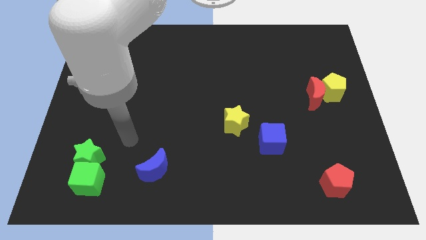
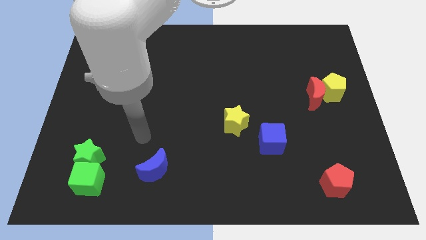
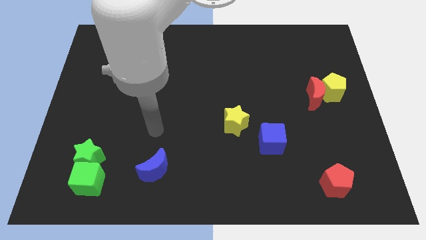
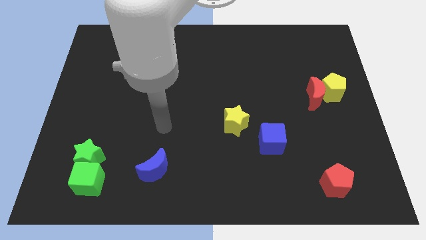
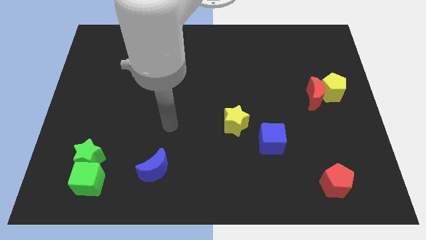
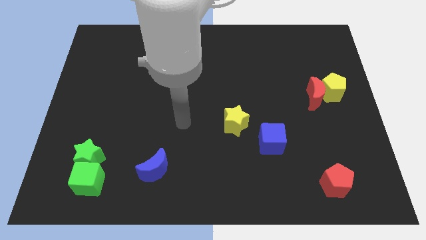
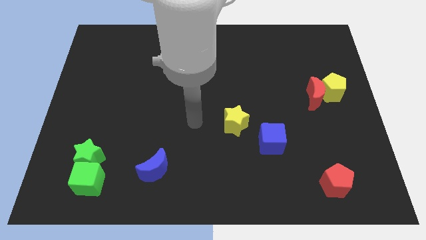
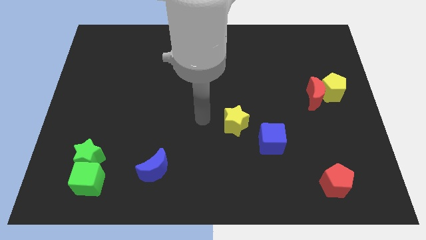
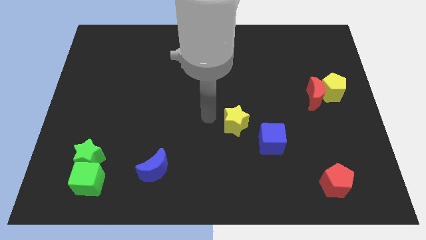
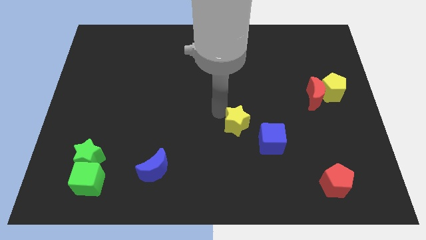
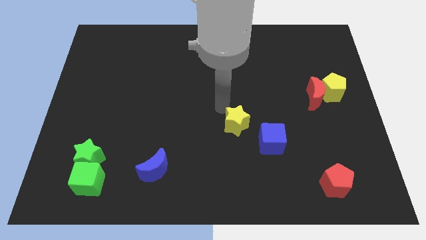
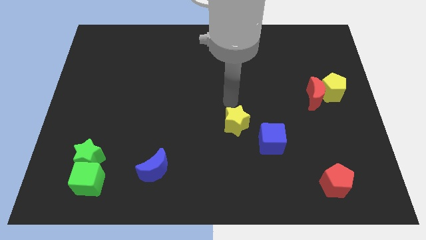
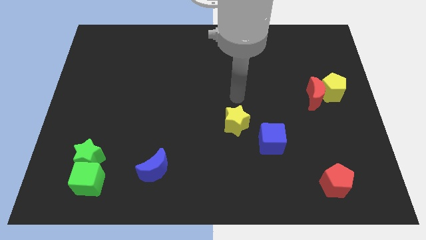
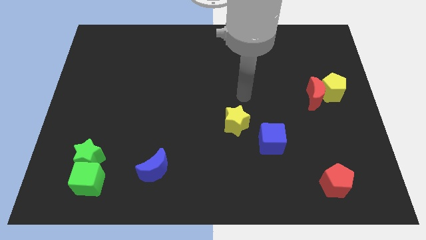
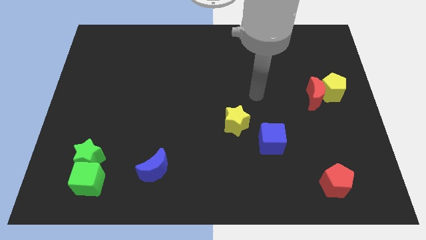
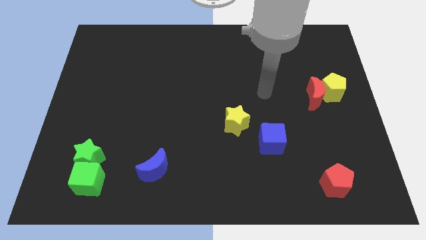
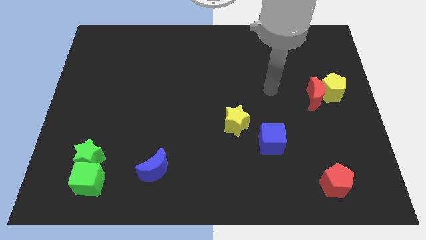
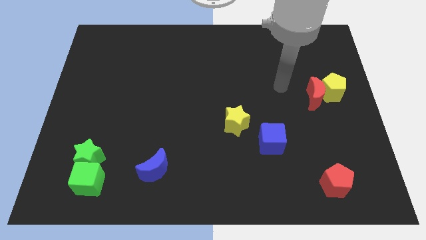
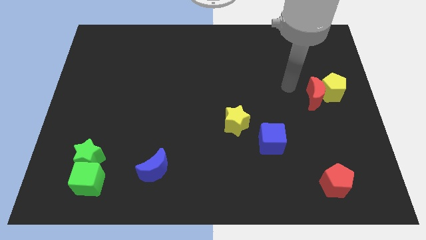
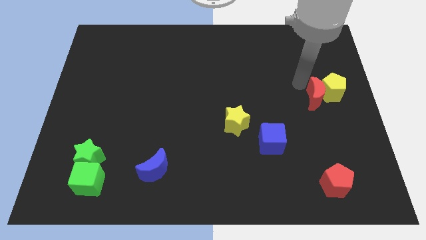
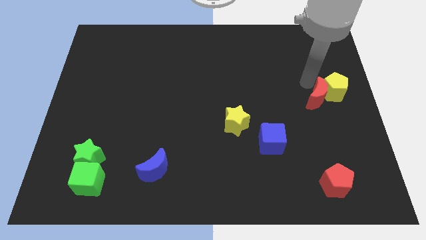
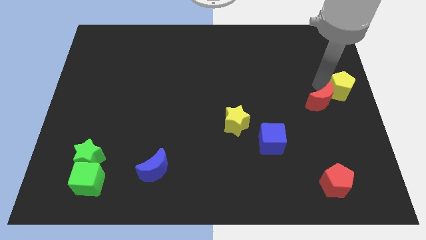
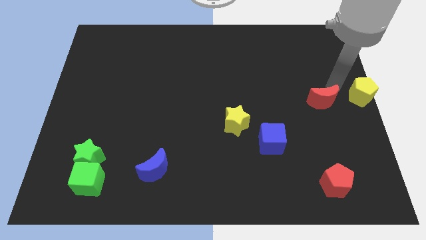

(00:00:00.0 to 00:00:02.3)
separate the red moon from the yellow pentagon

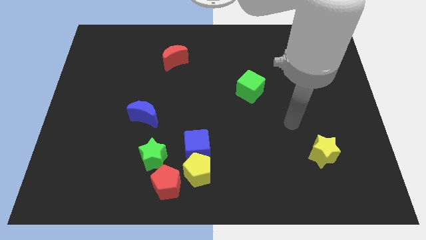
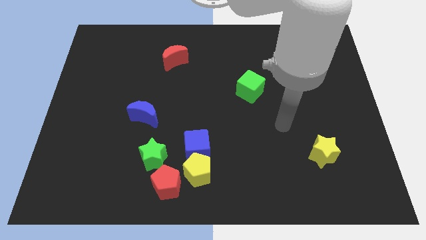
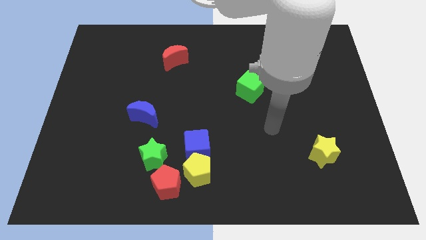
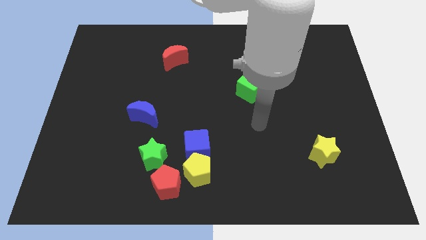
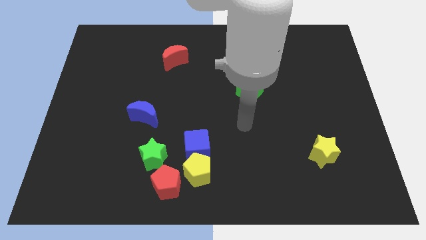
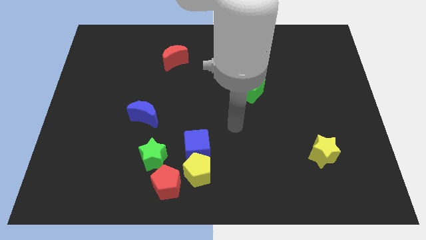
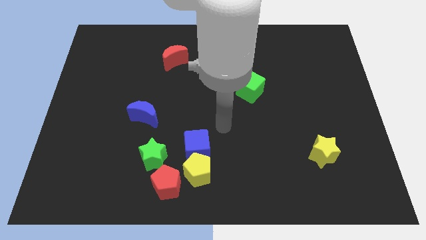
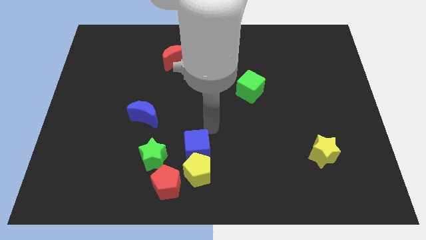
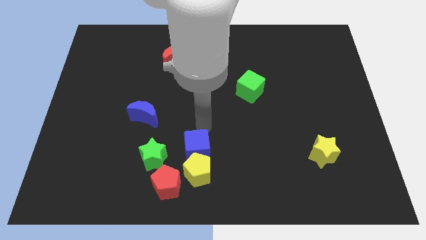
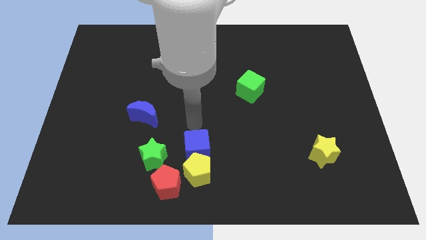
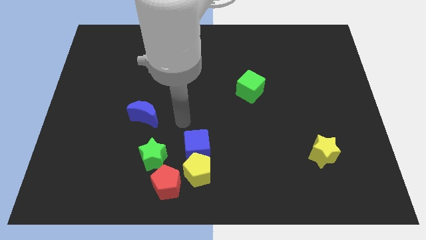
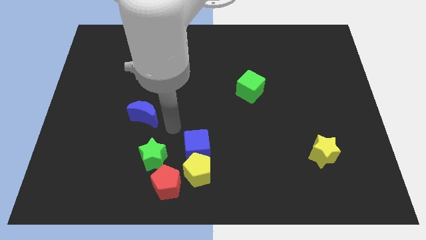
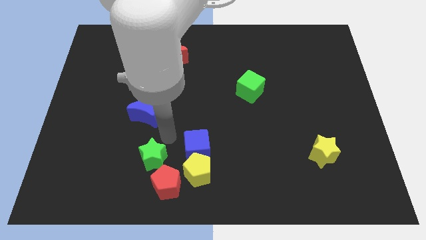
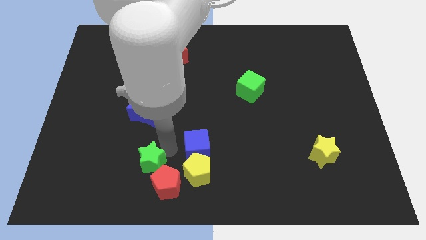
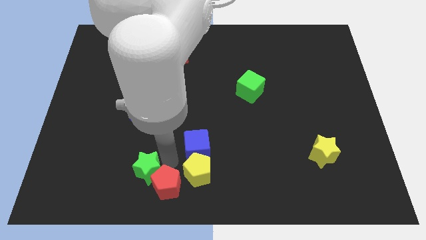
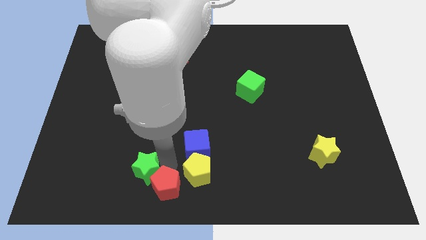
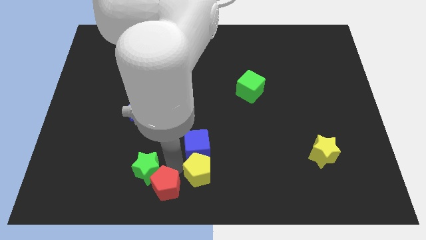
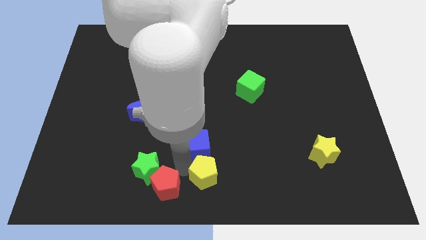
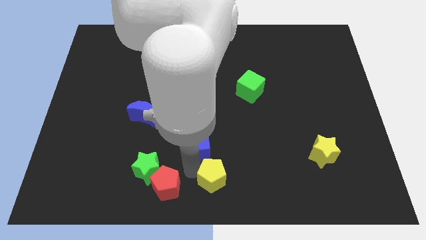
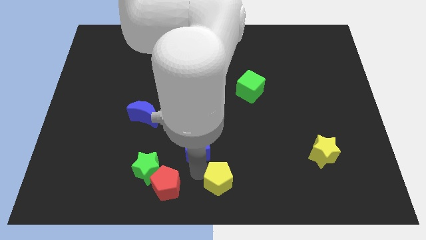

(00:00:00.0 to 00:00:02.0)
pull the yellow pentagon apart from the group of blocks

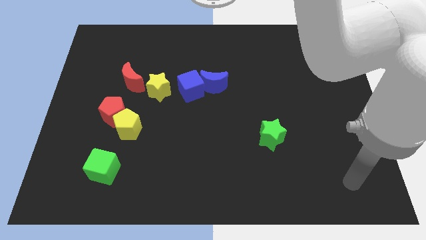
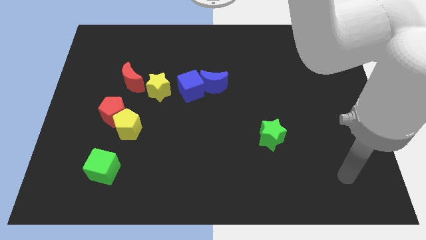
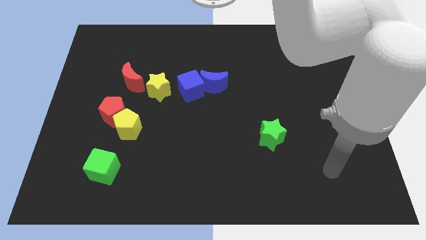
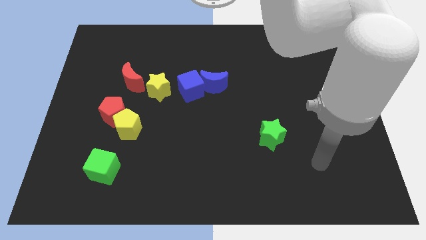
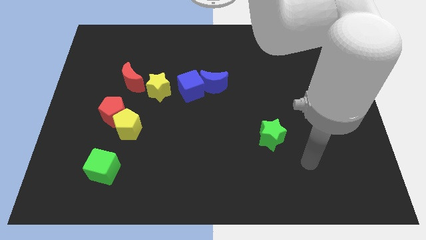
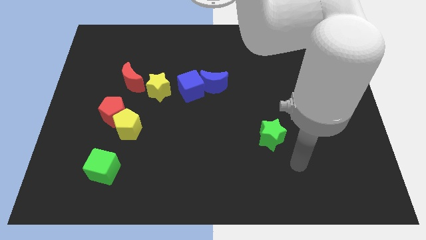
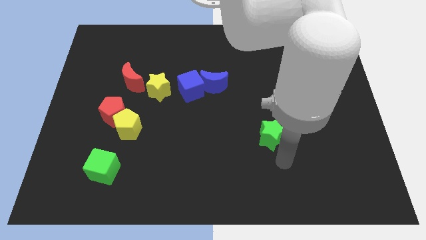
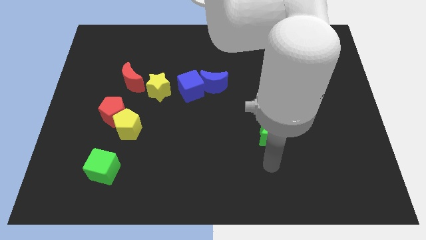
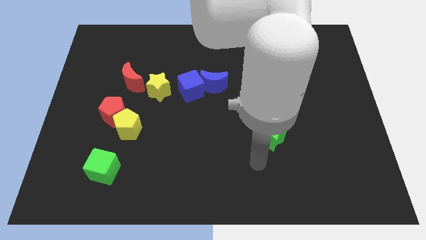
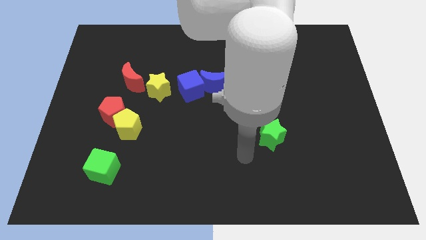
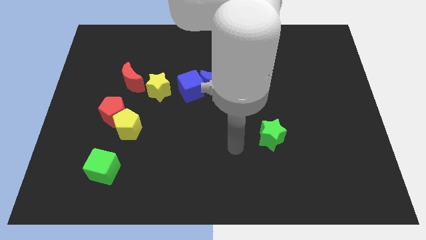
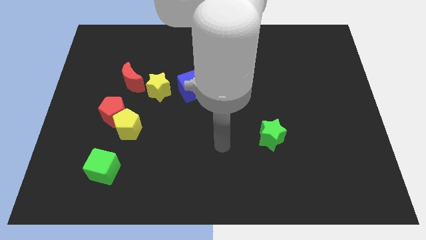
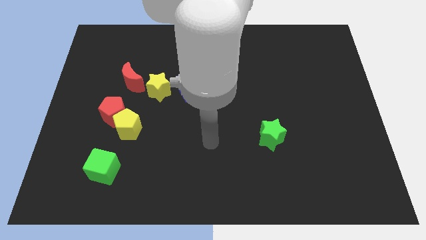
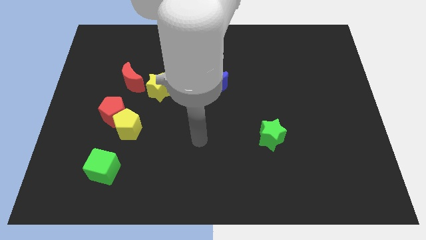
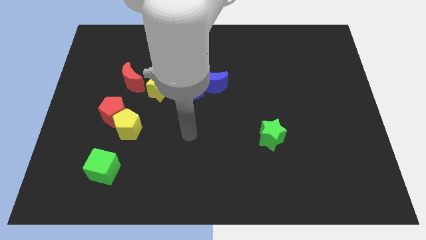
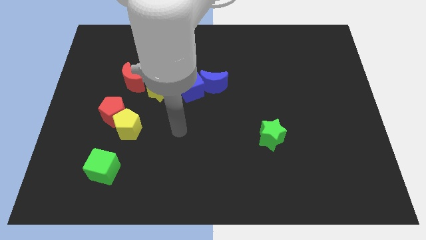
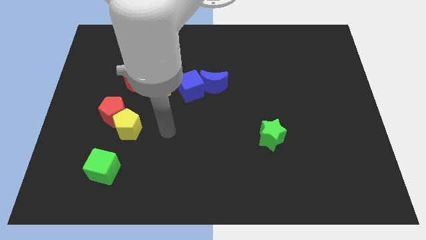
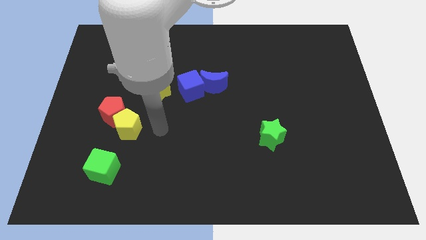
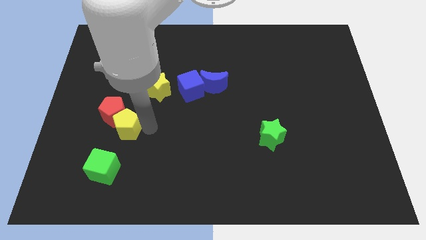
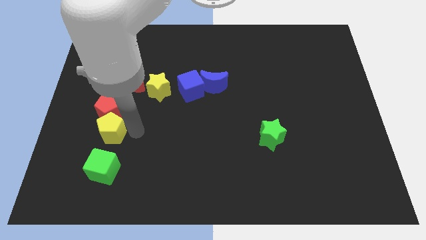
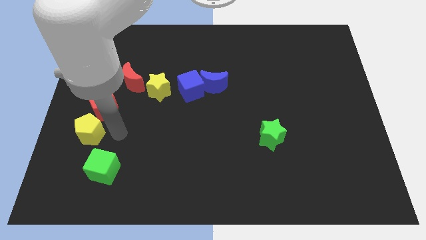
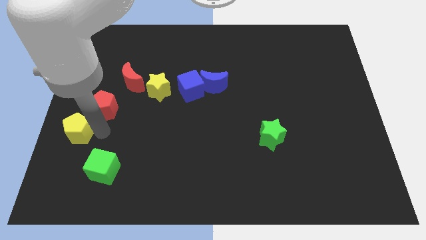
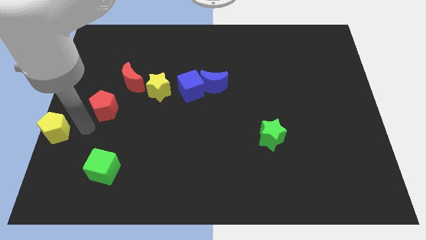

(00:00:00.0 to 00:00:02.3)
pull the red pentagon apart from the yellow pentagon

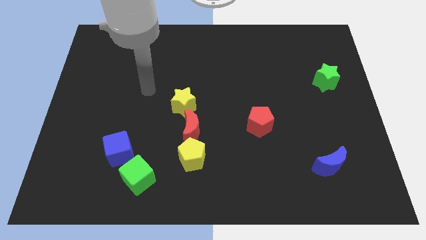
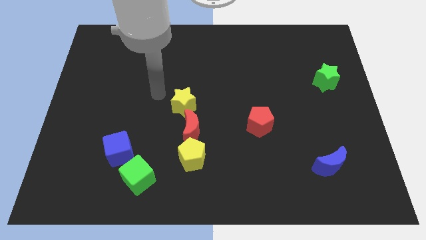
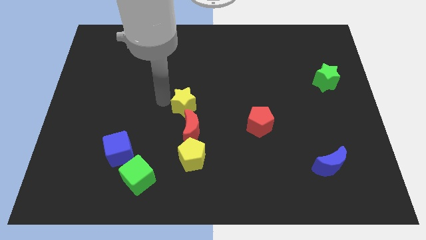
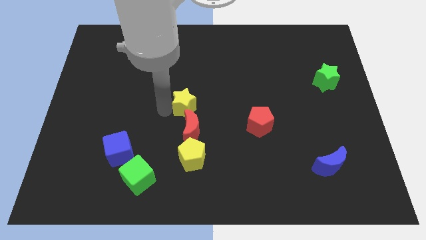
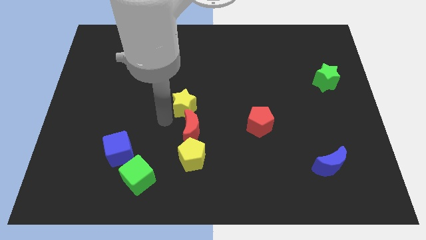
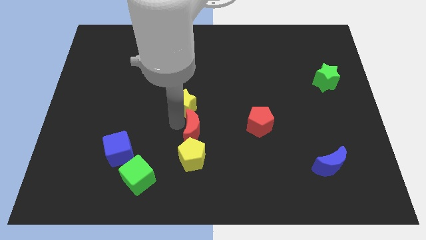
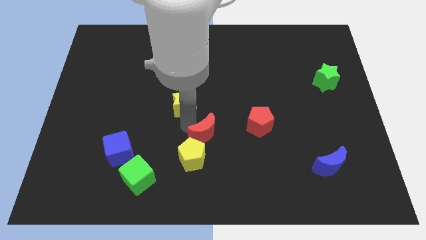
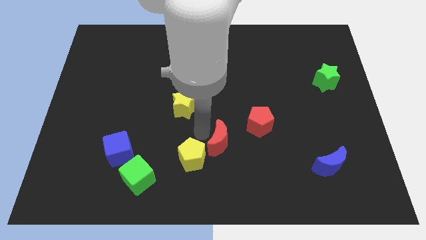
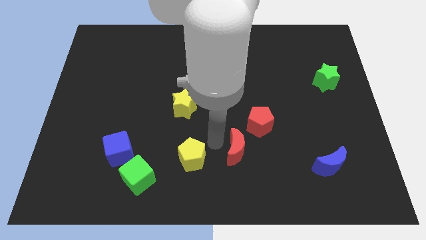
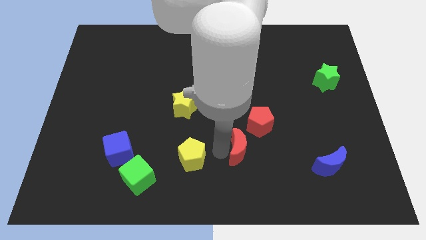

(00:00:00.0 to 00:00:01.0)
separate the yellow pentagon from the red moon

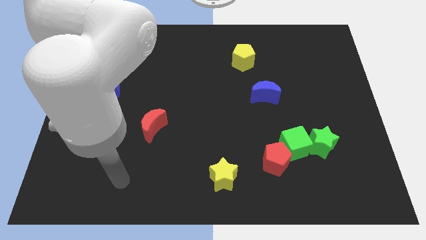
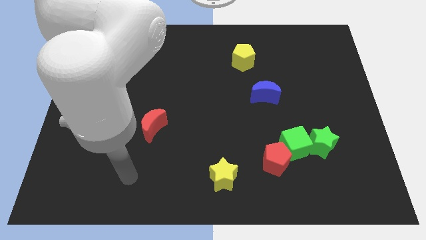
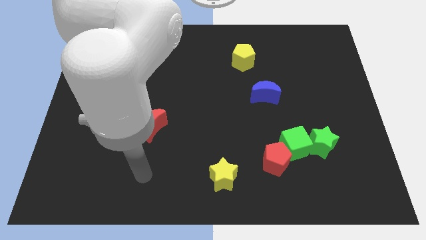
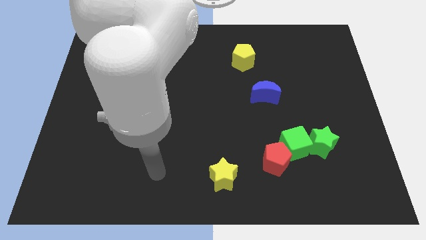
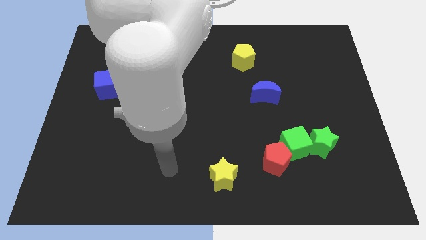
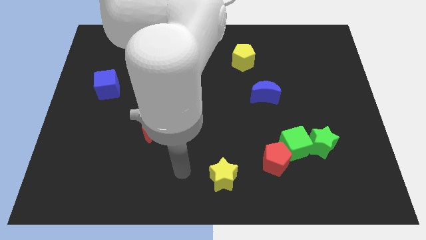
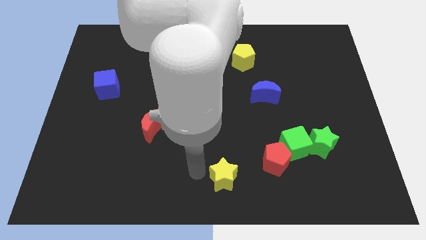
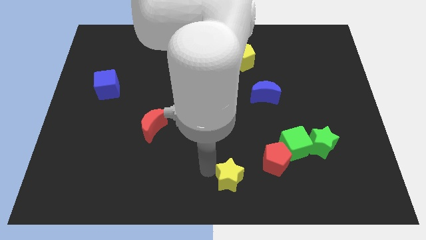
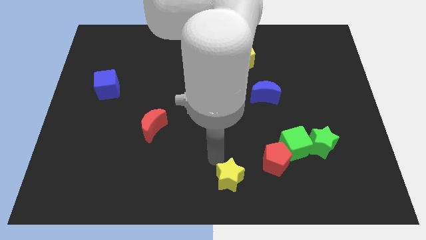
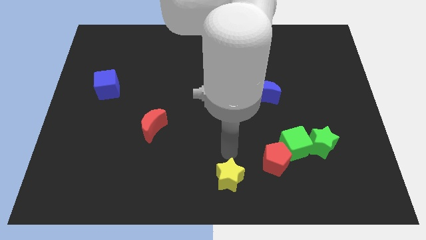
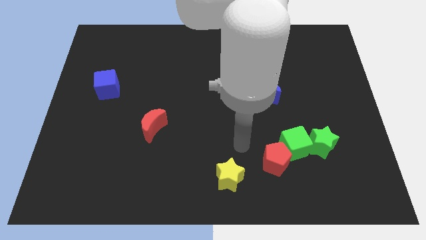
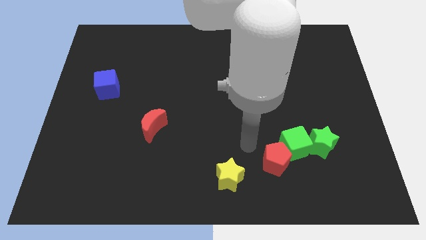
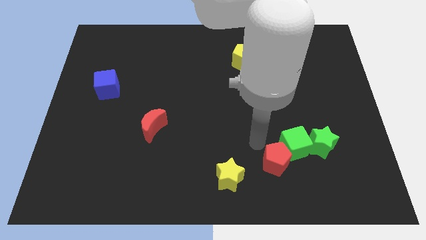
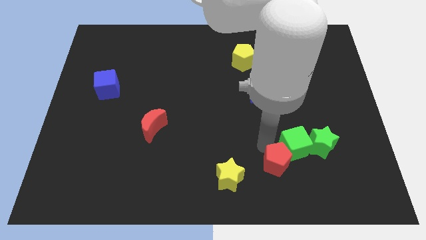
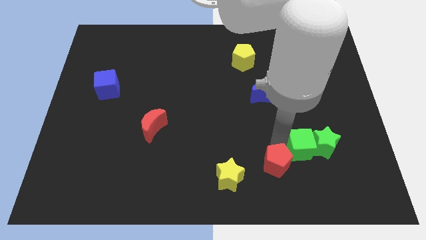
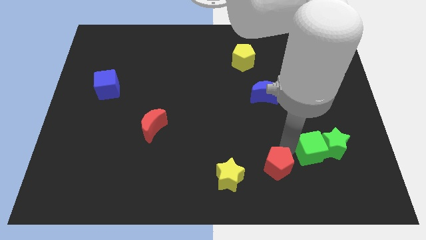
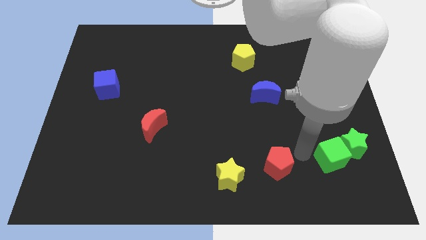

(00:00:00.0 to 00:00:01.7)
separate the red pentagon from the green cube
